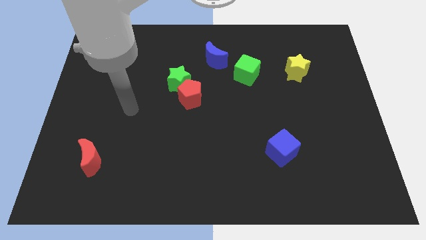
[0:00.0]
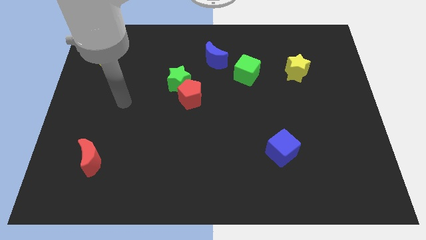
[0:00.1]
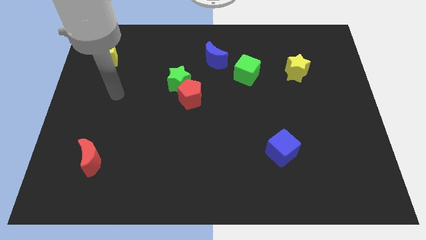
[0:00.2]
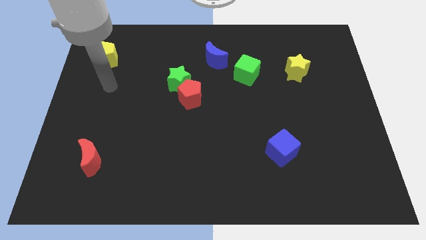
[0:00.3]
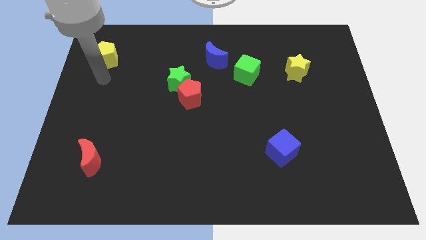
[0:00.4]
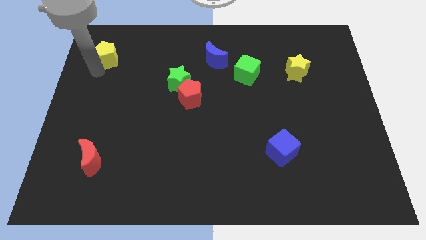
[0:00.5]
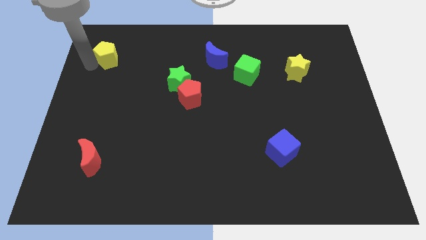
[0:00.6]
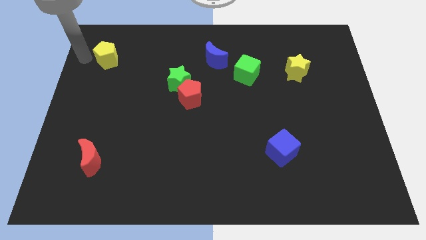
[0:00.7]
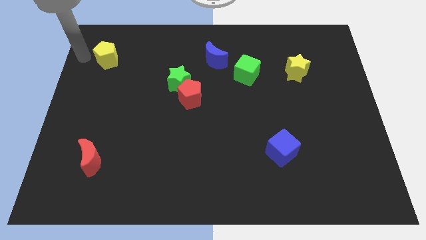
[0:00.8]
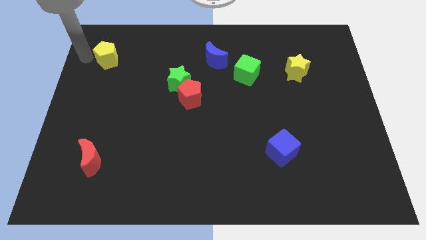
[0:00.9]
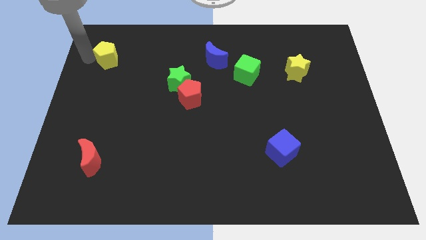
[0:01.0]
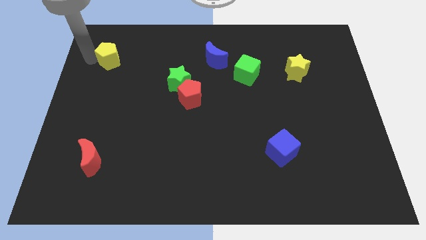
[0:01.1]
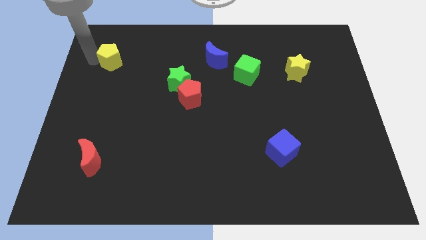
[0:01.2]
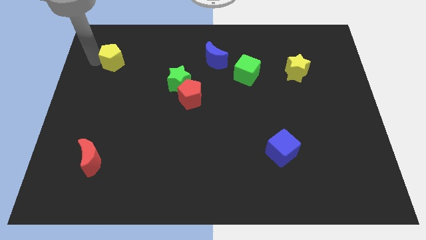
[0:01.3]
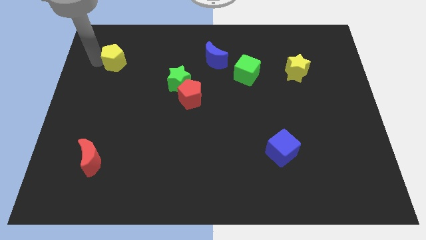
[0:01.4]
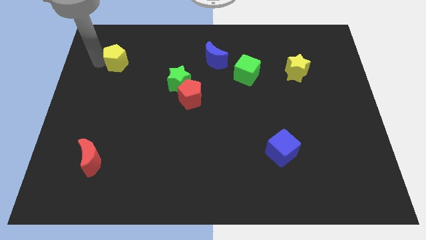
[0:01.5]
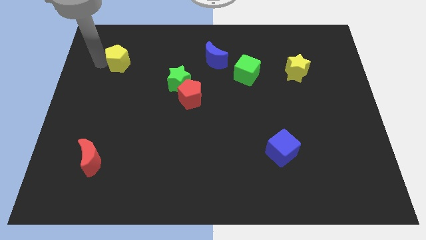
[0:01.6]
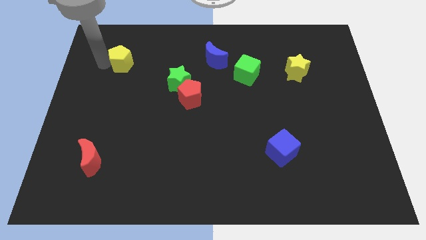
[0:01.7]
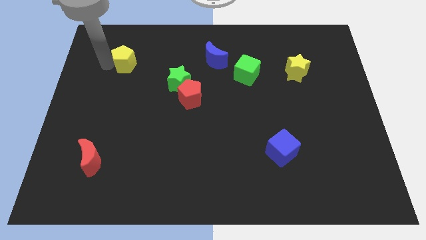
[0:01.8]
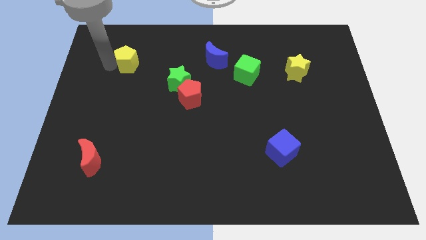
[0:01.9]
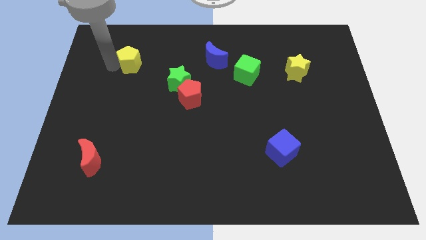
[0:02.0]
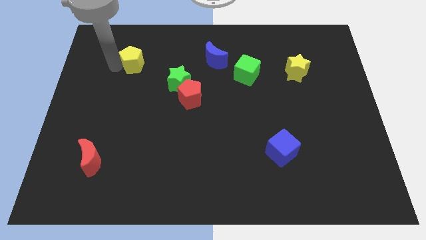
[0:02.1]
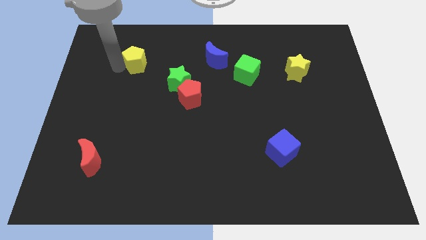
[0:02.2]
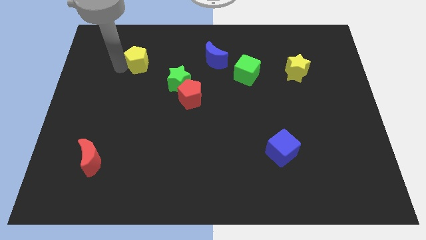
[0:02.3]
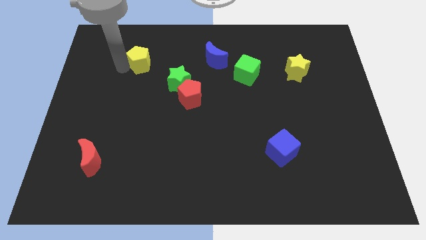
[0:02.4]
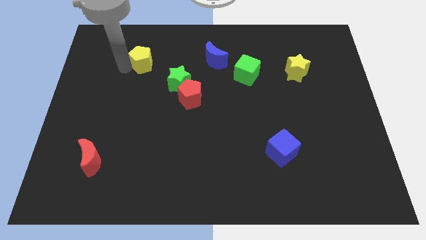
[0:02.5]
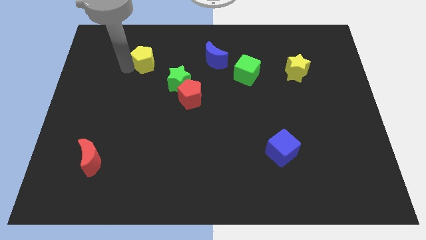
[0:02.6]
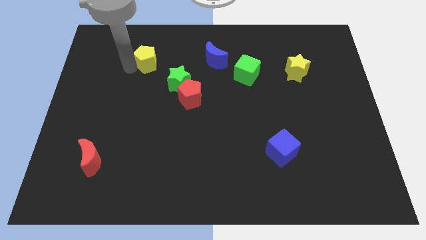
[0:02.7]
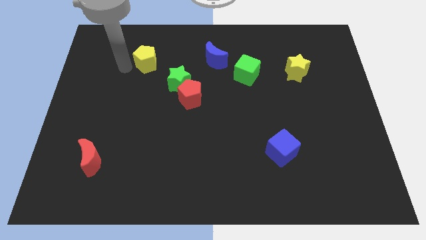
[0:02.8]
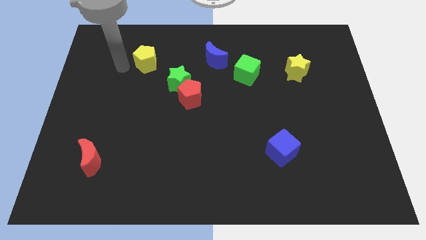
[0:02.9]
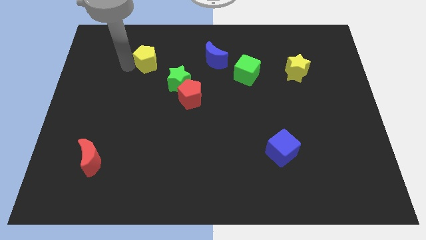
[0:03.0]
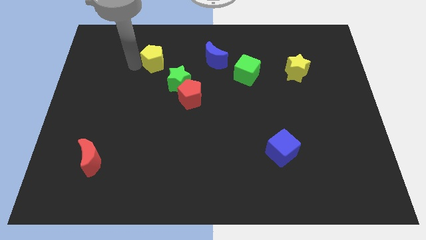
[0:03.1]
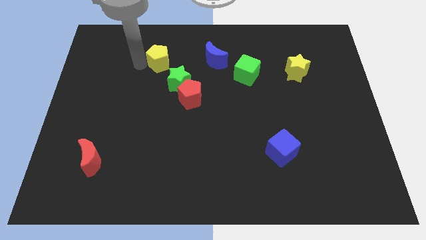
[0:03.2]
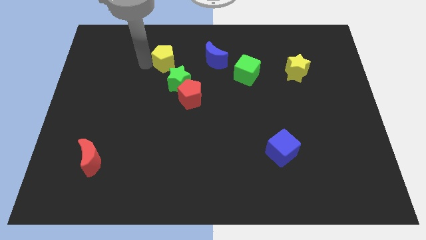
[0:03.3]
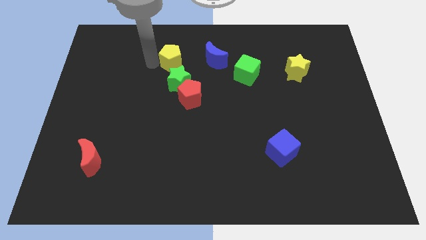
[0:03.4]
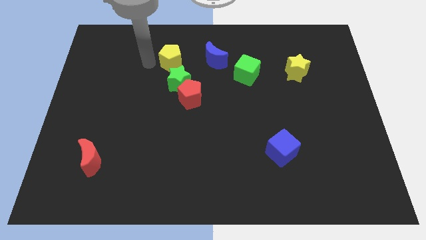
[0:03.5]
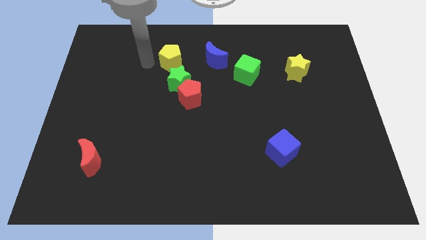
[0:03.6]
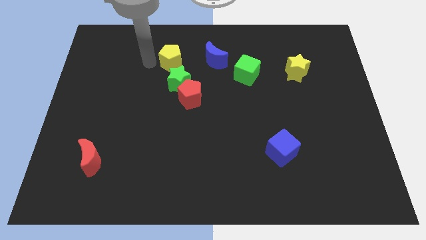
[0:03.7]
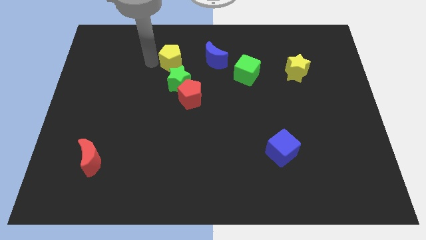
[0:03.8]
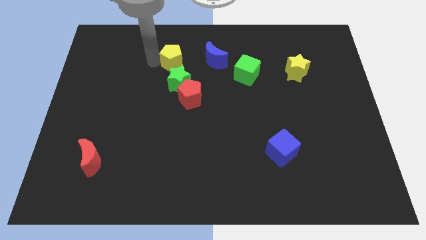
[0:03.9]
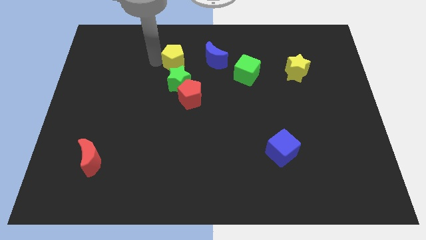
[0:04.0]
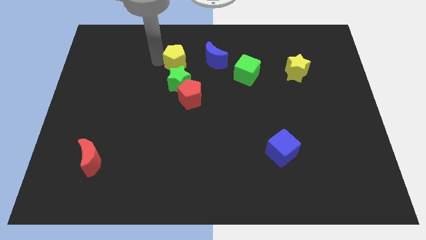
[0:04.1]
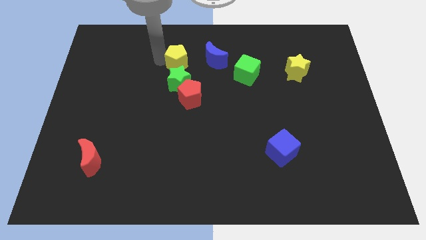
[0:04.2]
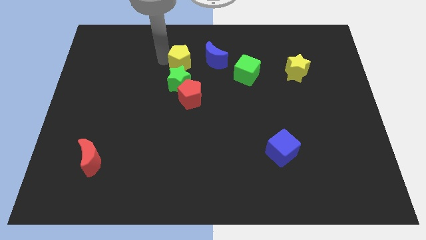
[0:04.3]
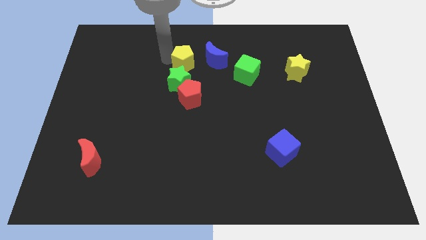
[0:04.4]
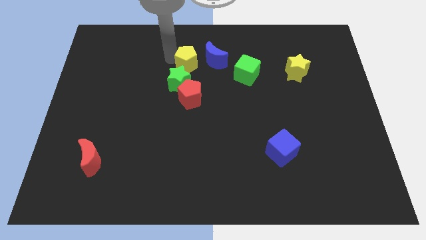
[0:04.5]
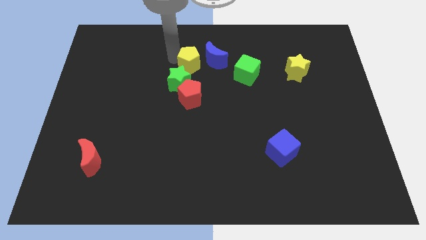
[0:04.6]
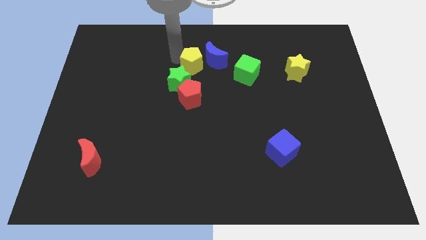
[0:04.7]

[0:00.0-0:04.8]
slide the yellow pentagon next to the blue moon

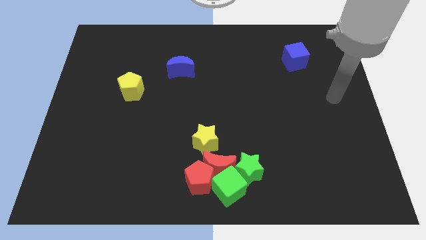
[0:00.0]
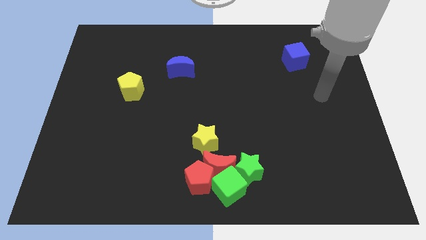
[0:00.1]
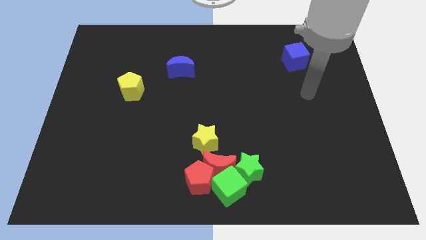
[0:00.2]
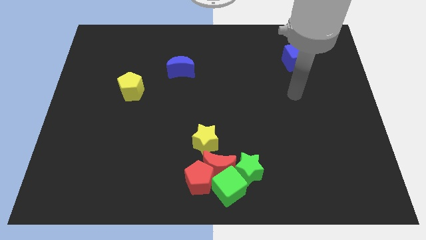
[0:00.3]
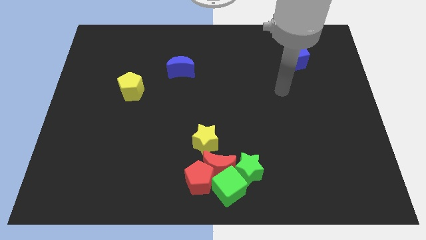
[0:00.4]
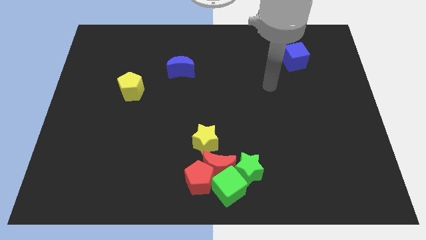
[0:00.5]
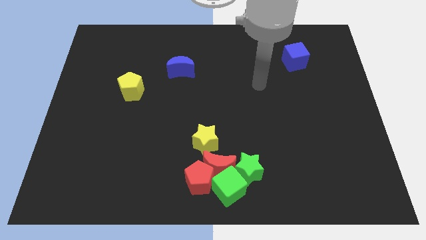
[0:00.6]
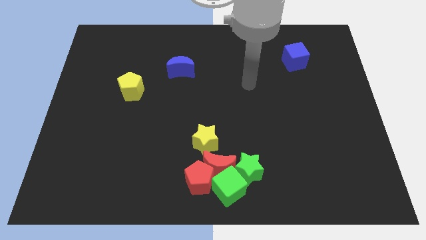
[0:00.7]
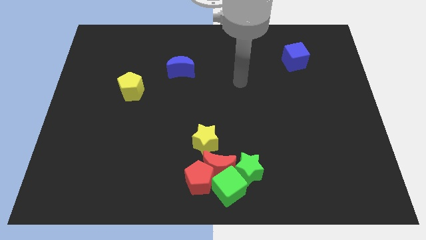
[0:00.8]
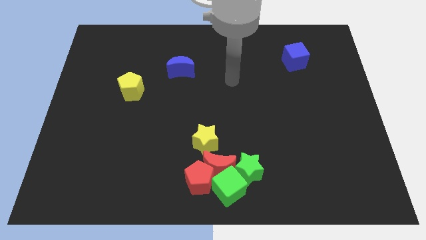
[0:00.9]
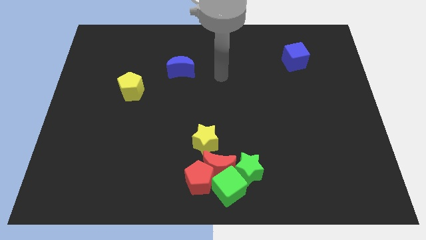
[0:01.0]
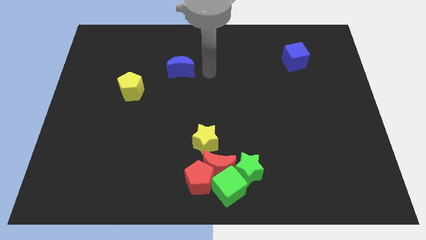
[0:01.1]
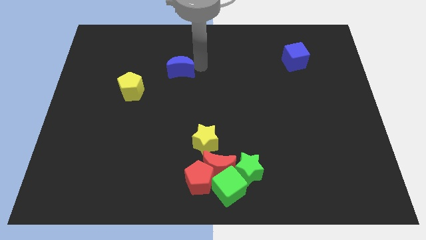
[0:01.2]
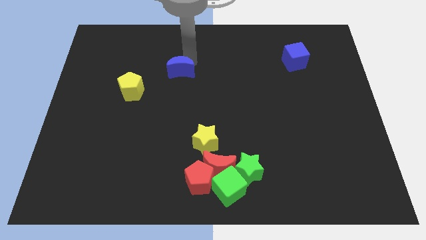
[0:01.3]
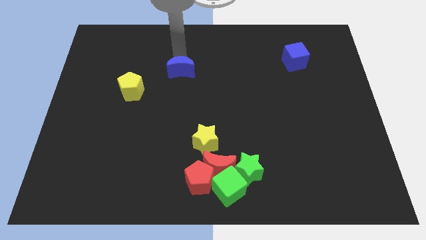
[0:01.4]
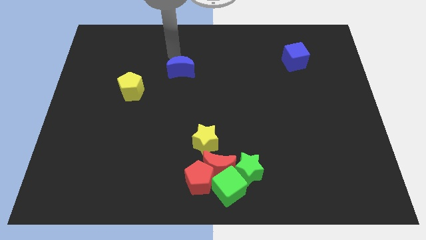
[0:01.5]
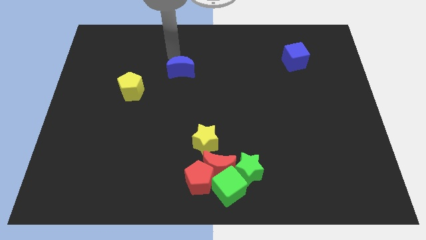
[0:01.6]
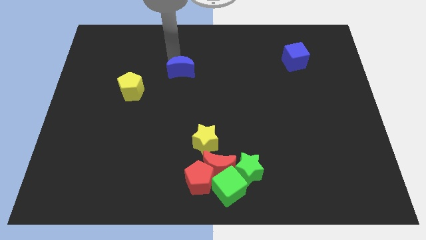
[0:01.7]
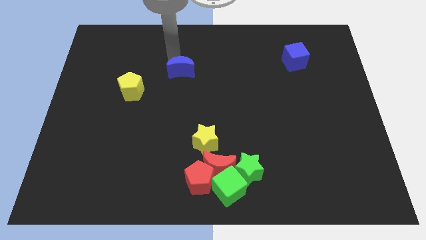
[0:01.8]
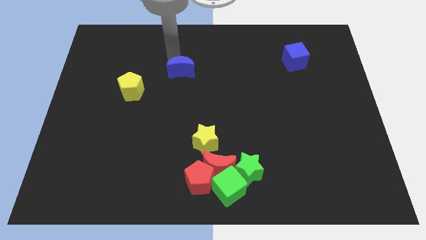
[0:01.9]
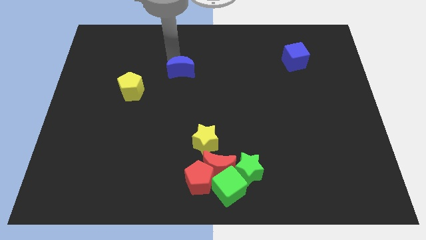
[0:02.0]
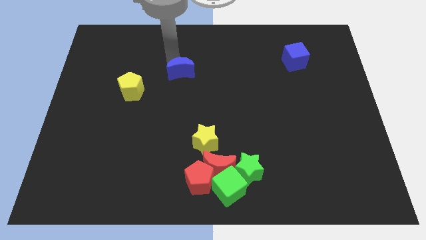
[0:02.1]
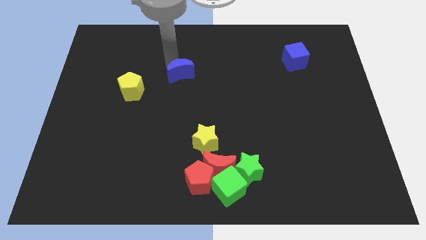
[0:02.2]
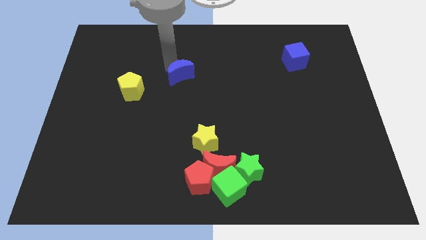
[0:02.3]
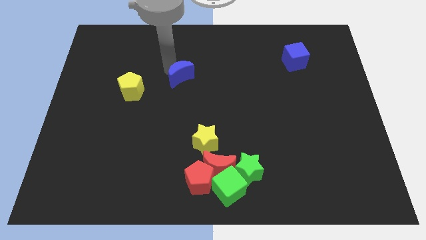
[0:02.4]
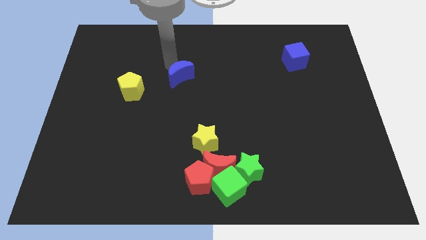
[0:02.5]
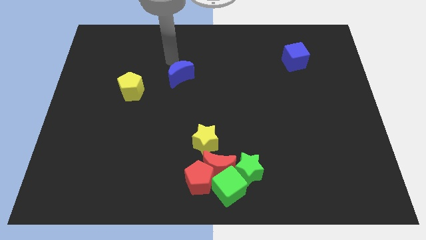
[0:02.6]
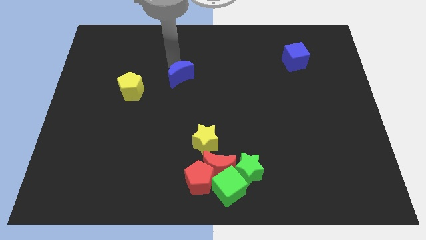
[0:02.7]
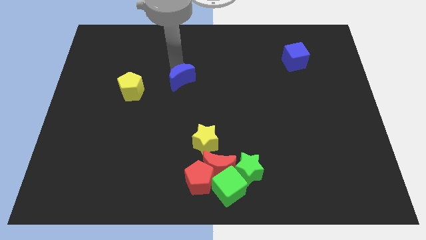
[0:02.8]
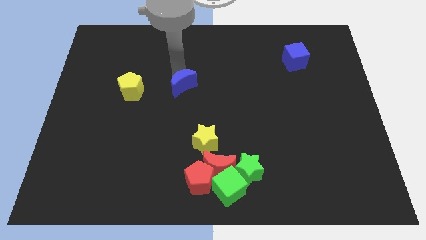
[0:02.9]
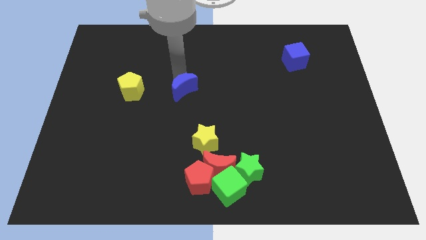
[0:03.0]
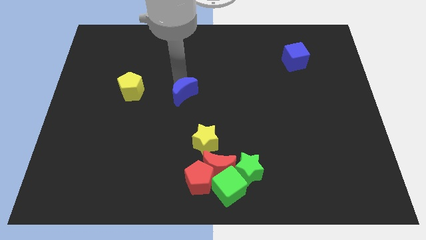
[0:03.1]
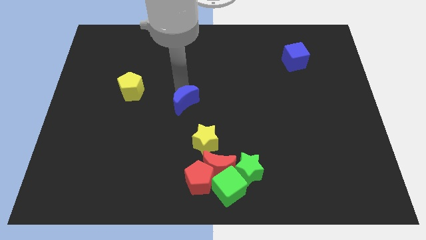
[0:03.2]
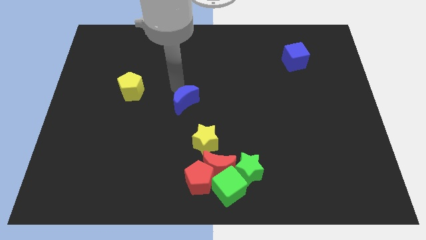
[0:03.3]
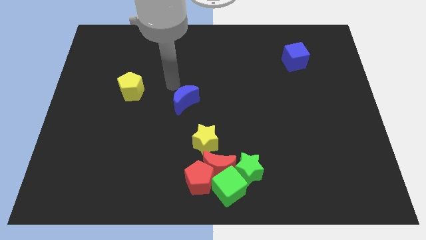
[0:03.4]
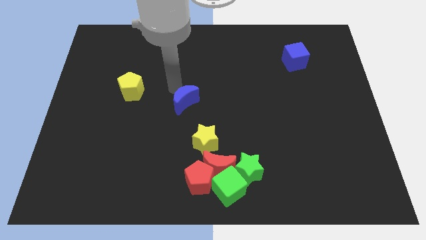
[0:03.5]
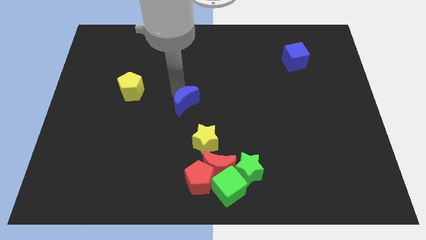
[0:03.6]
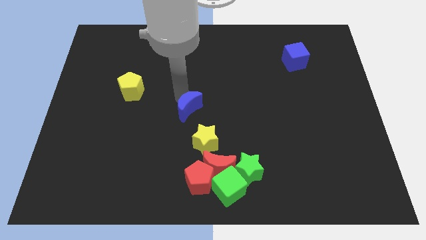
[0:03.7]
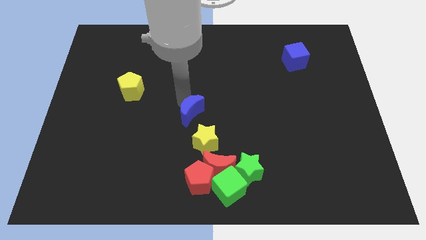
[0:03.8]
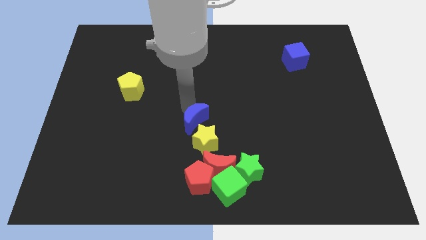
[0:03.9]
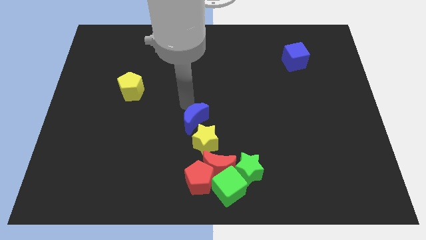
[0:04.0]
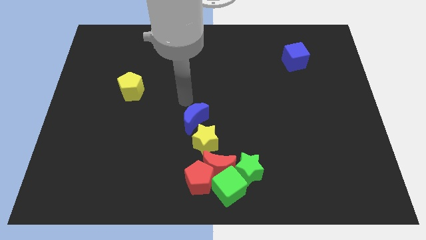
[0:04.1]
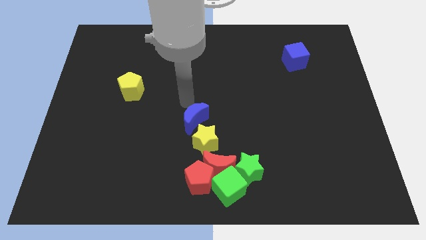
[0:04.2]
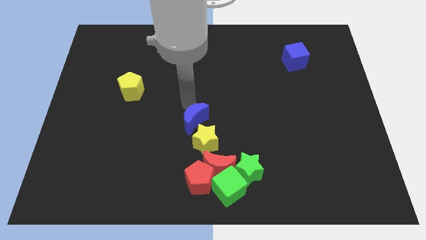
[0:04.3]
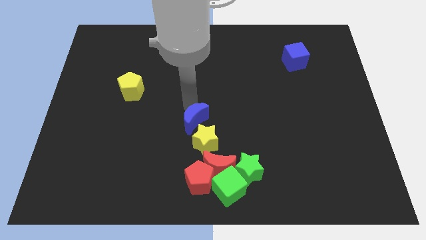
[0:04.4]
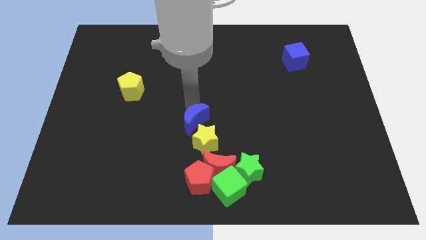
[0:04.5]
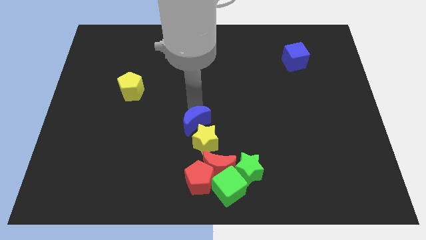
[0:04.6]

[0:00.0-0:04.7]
slide the blue moon to the yellow star
